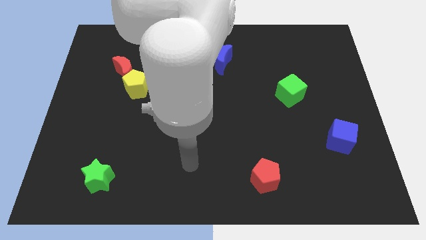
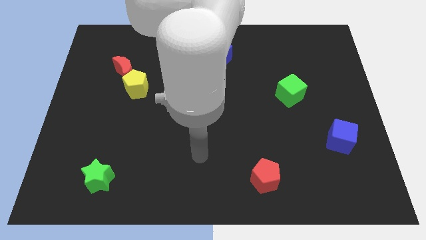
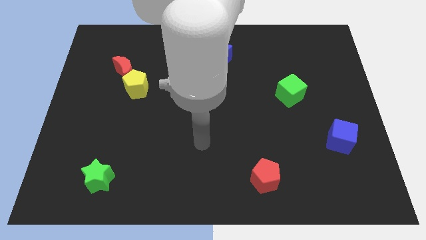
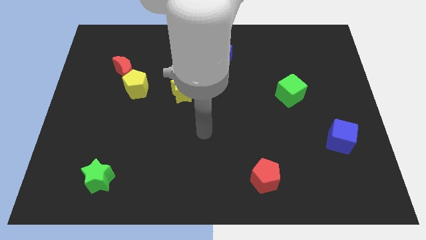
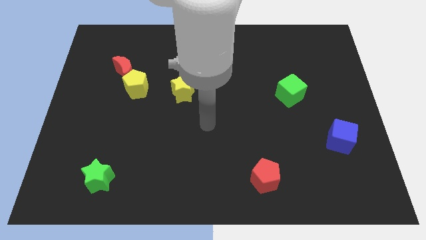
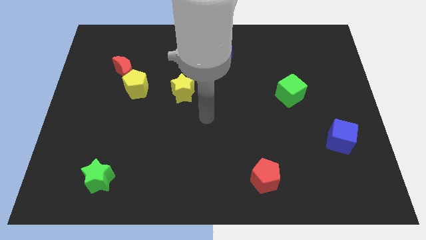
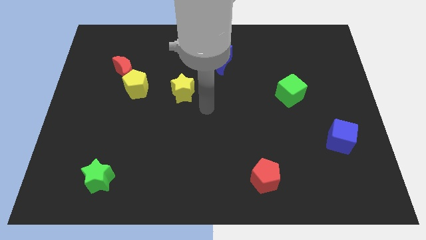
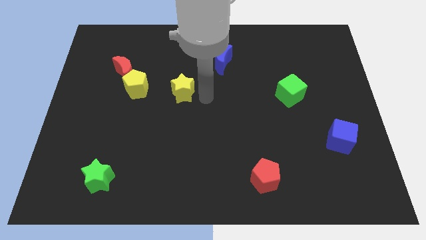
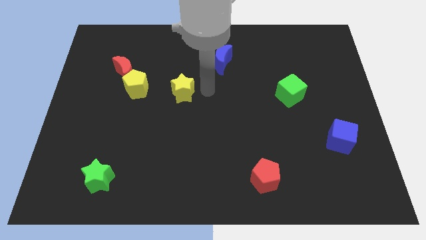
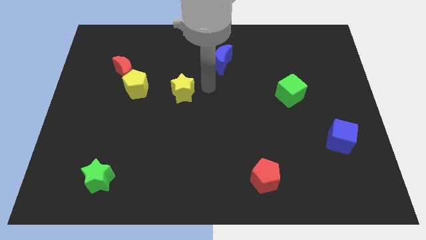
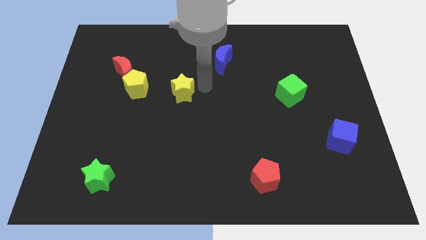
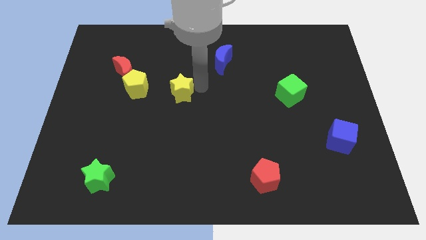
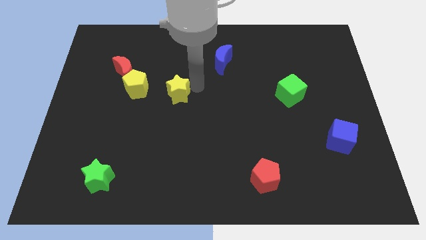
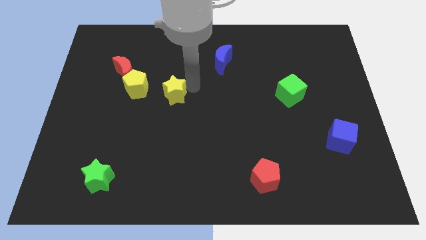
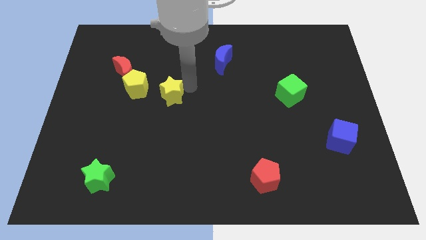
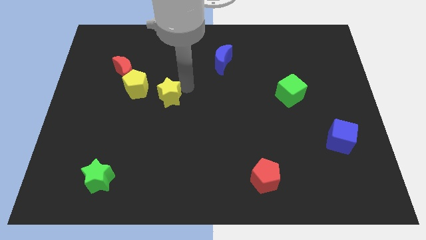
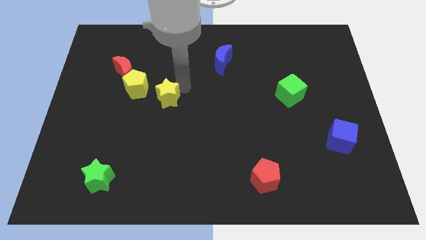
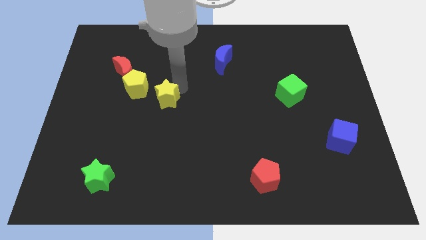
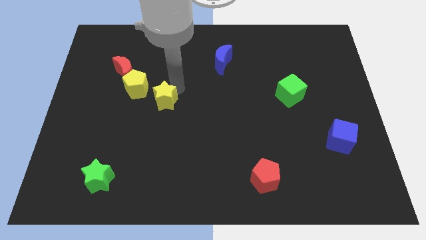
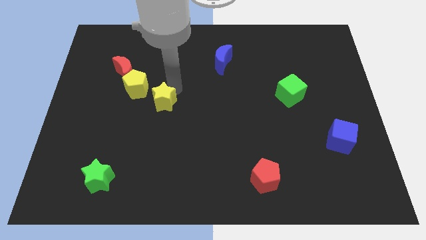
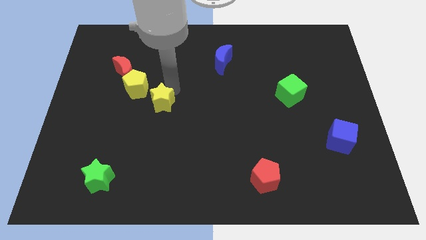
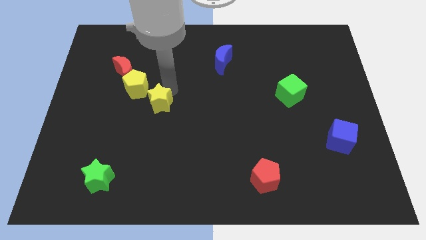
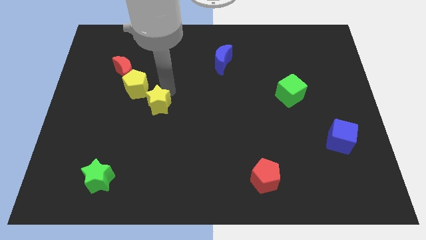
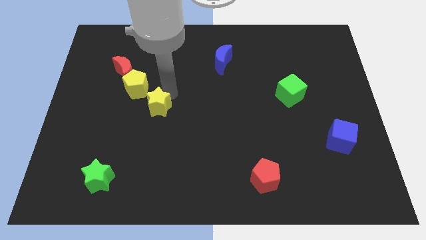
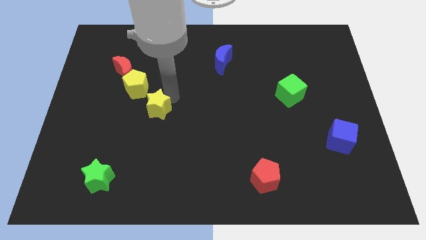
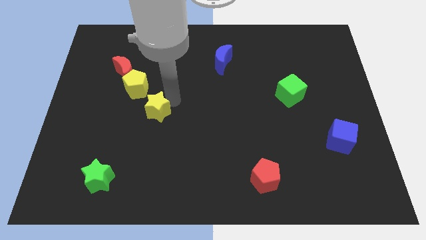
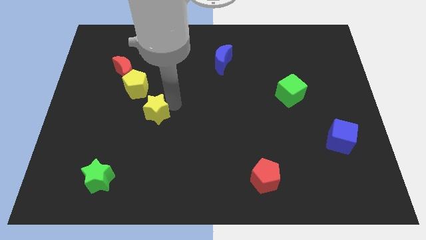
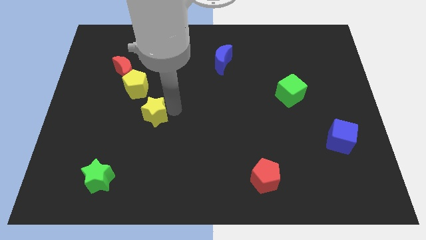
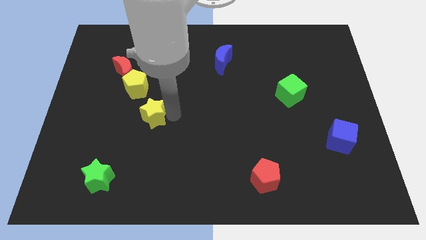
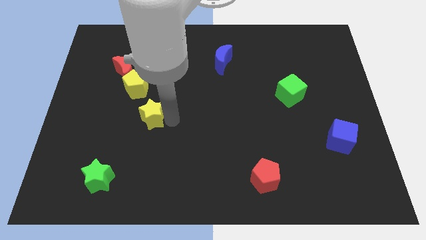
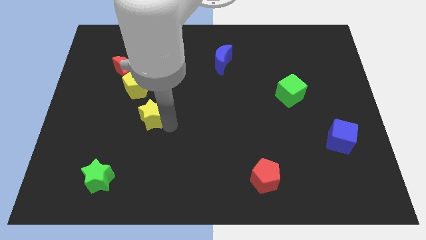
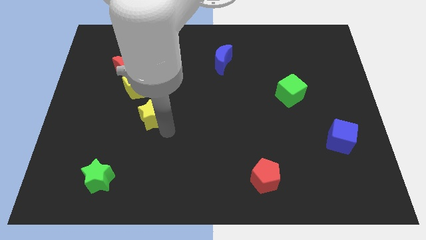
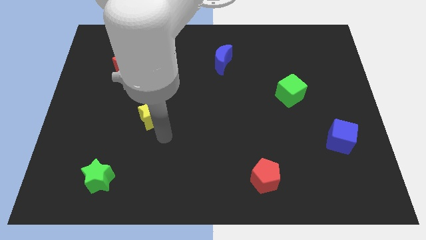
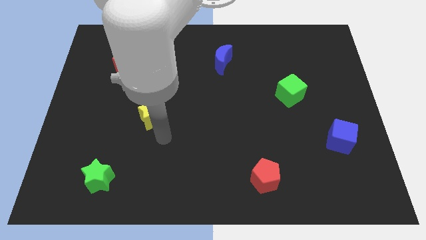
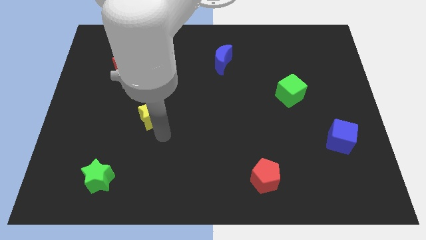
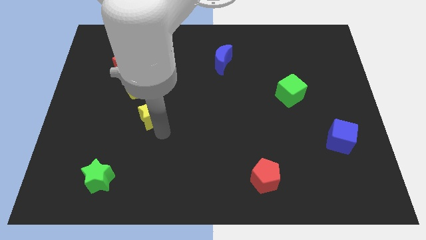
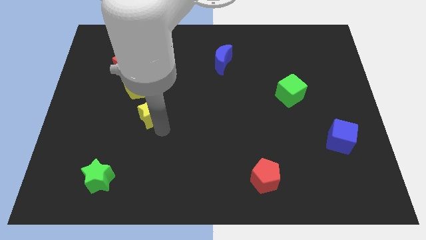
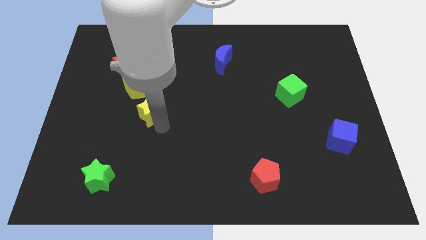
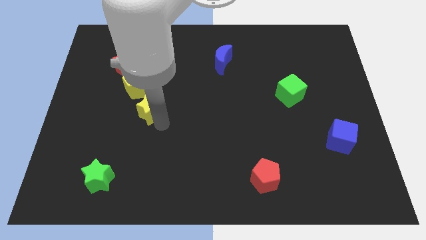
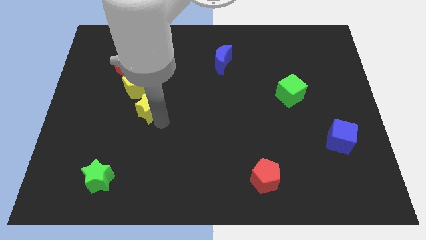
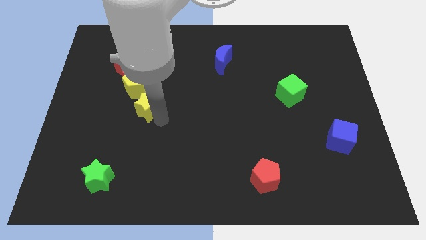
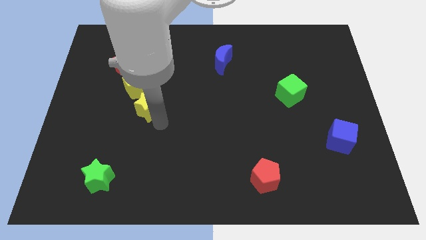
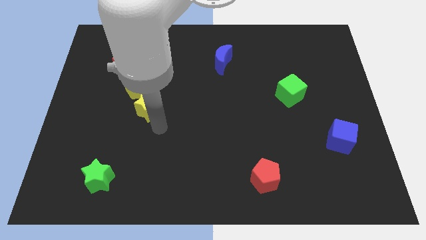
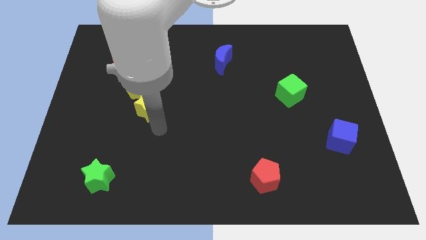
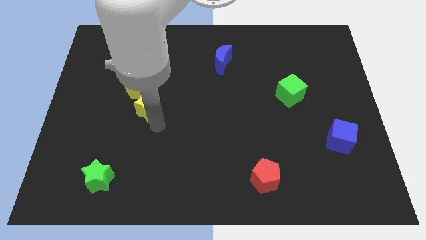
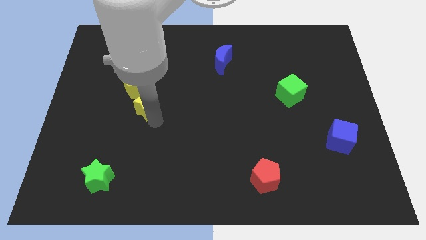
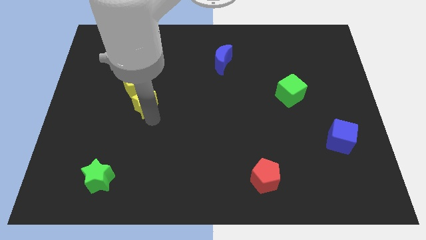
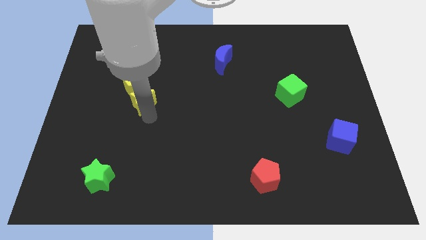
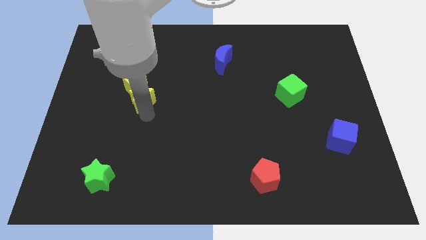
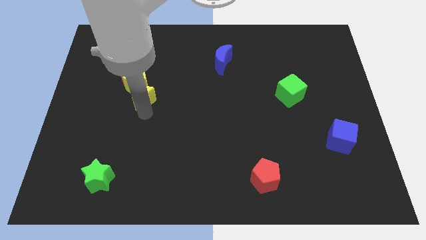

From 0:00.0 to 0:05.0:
put the yellow star to the bottom left side of the yellow pentagon

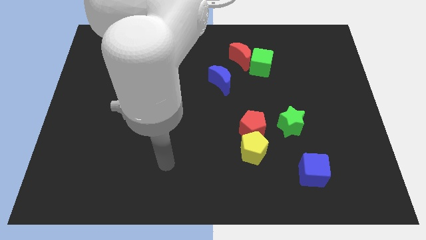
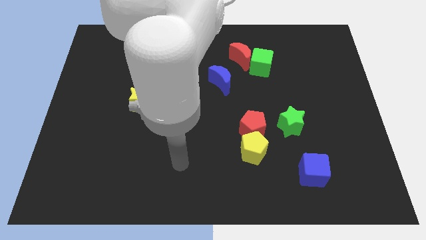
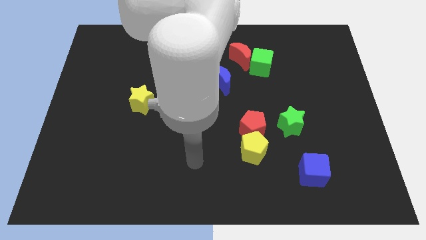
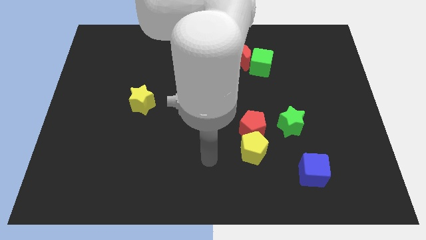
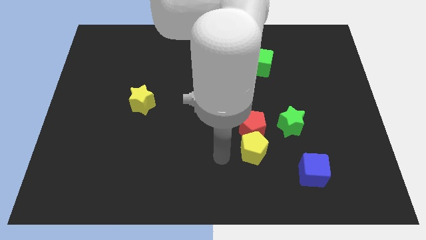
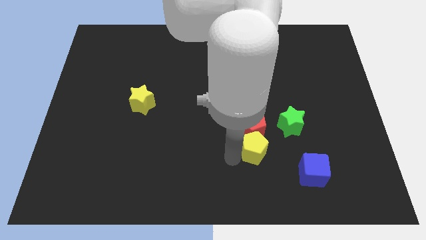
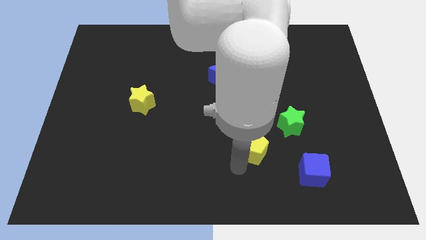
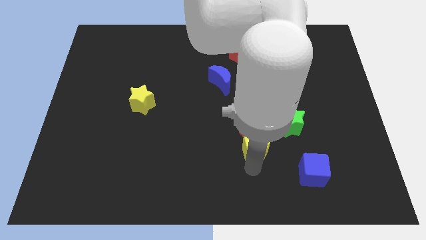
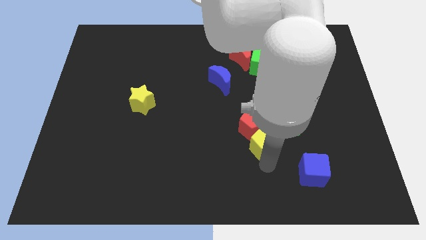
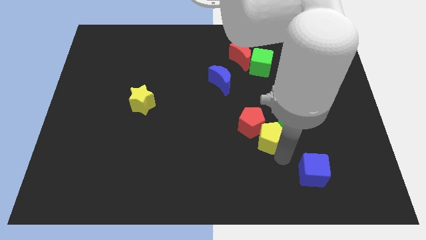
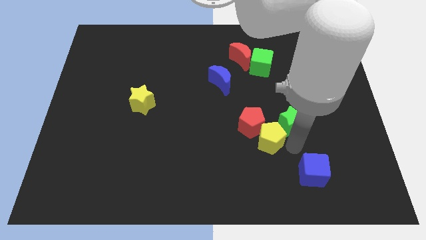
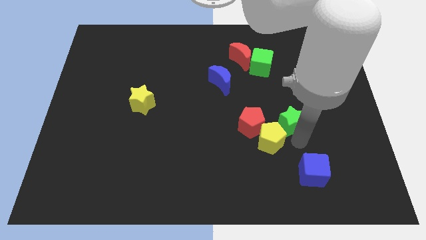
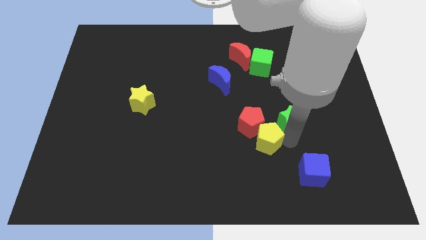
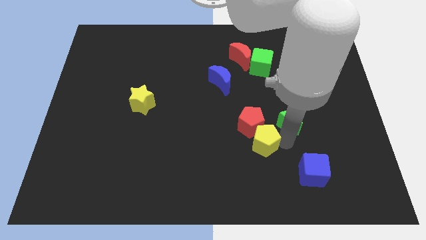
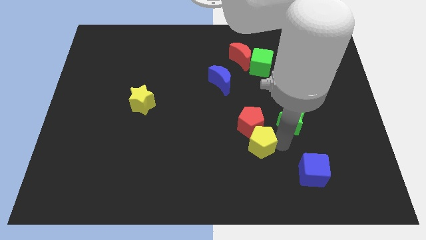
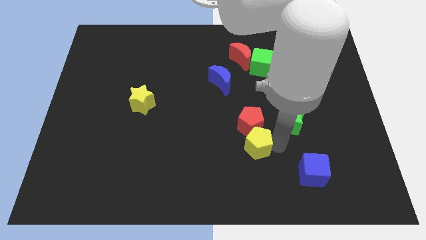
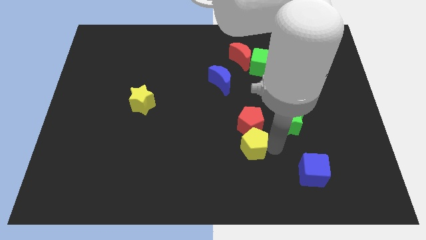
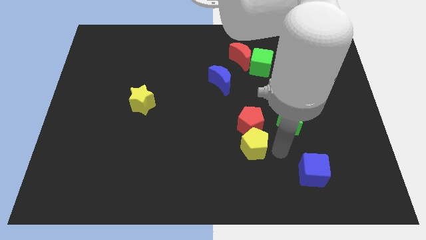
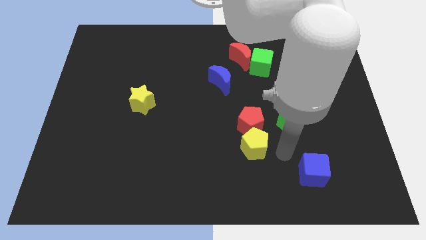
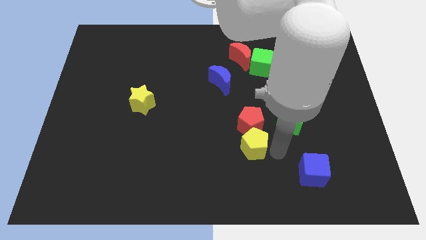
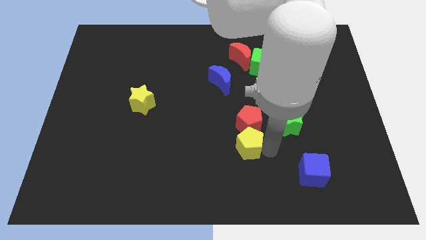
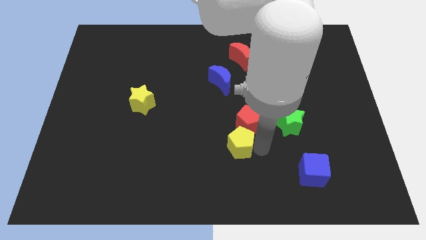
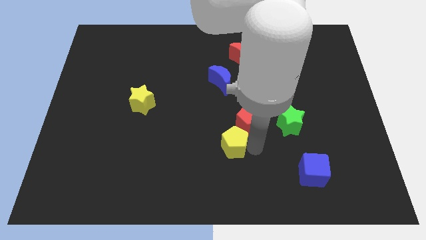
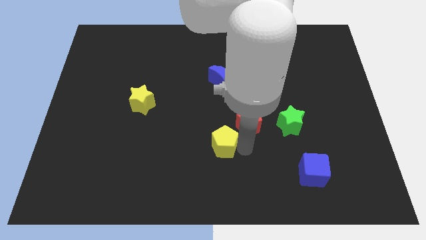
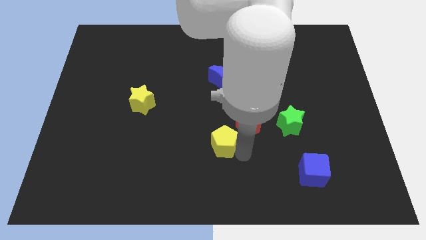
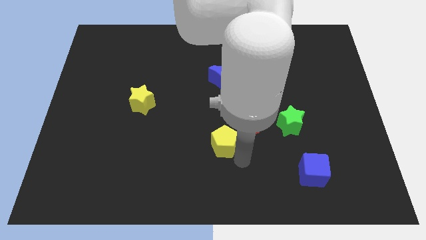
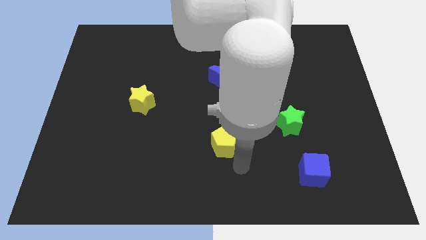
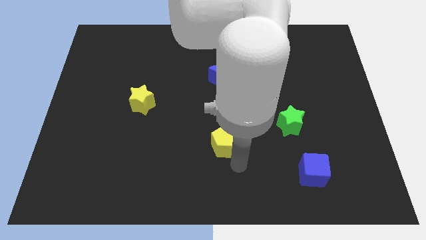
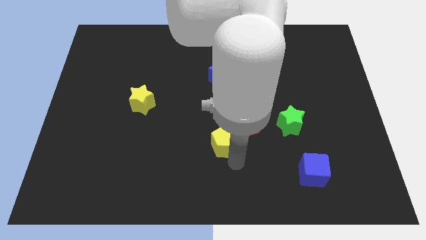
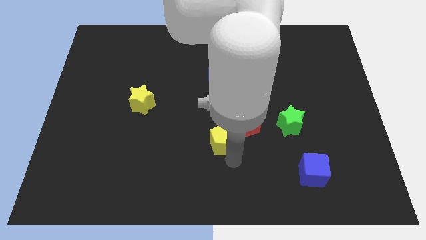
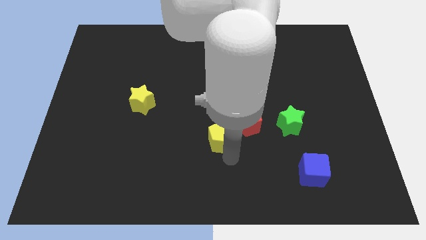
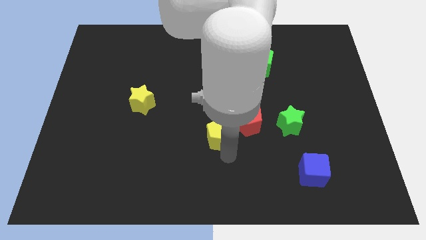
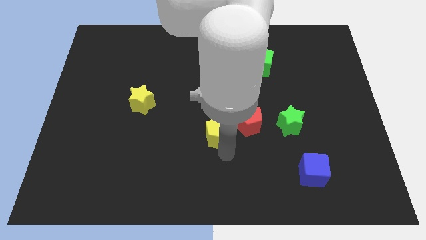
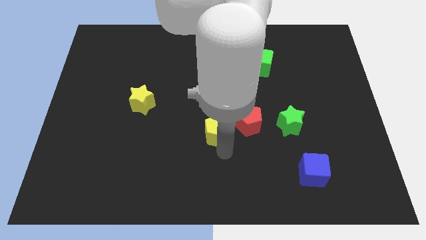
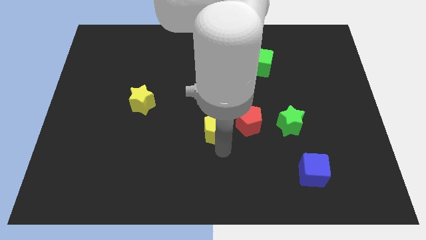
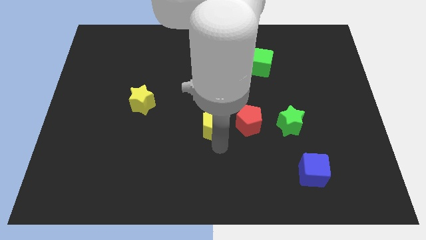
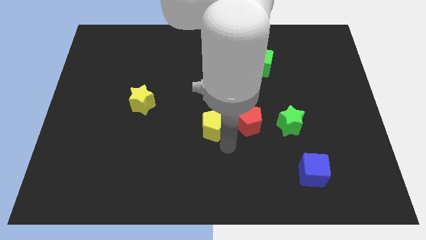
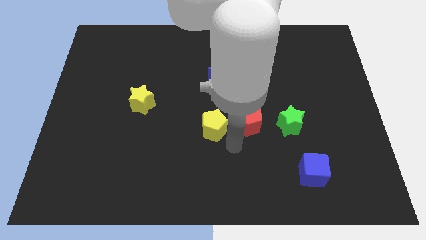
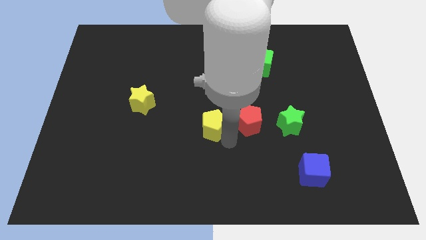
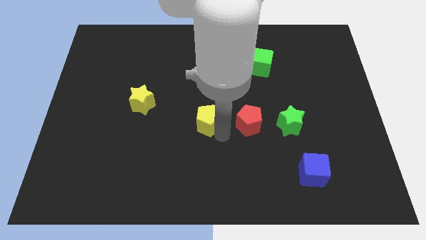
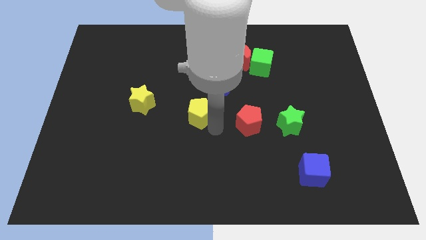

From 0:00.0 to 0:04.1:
move the yellow pentagon to the right side of the yellow star
